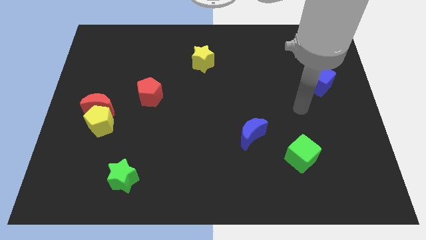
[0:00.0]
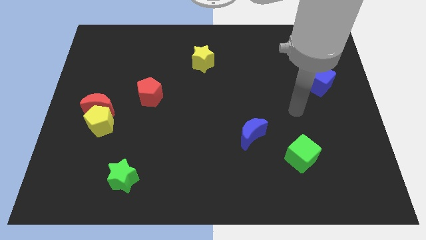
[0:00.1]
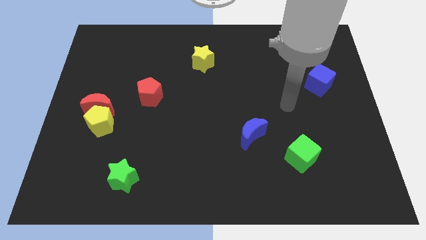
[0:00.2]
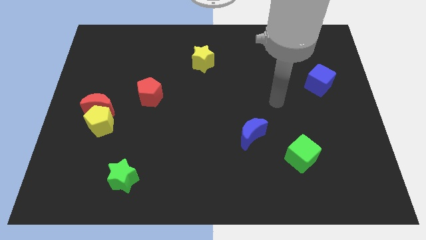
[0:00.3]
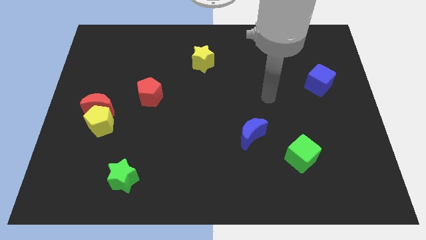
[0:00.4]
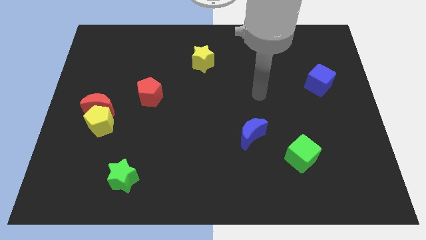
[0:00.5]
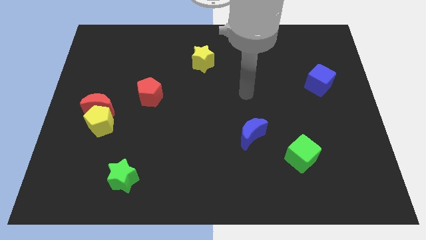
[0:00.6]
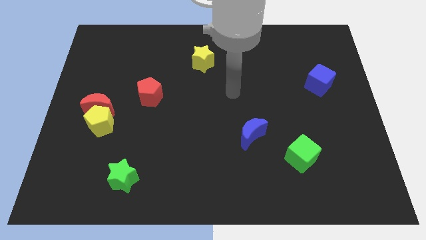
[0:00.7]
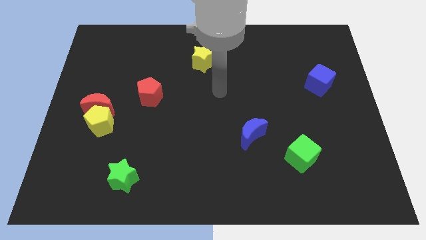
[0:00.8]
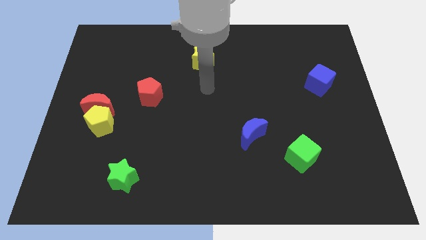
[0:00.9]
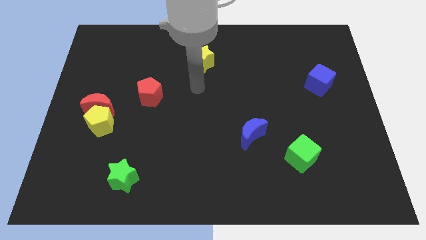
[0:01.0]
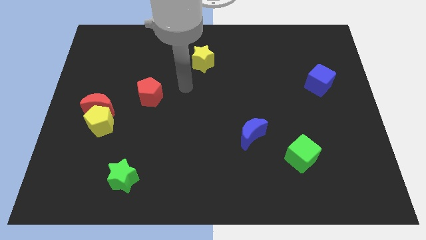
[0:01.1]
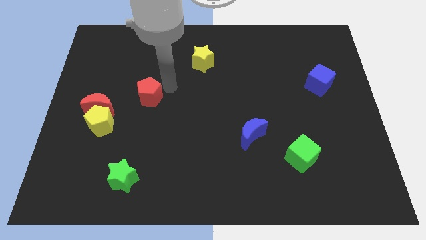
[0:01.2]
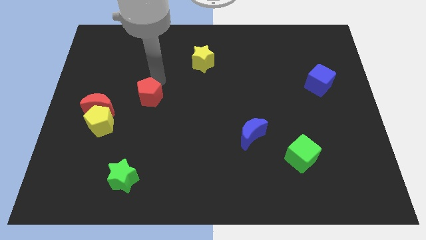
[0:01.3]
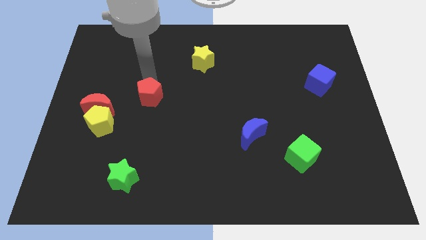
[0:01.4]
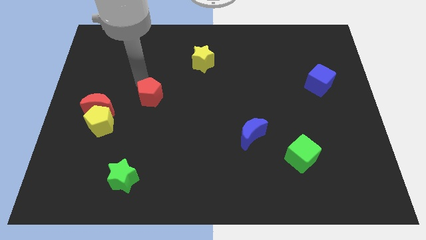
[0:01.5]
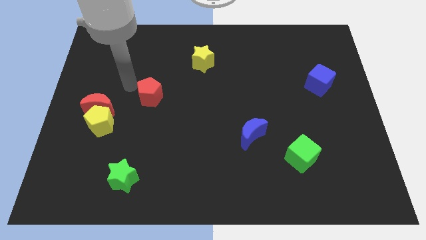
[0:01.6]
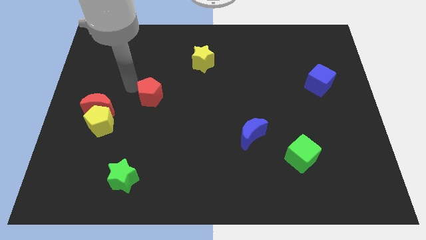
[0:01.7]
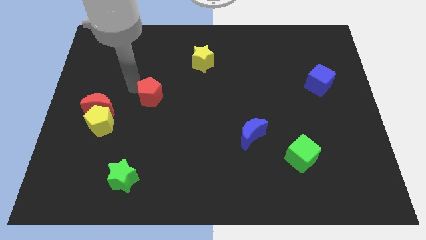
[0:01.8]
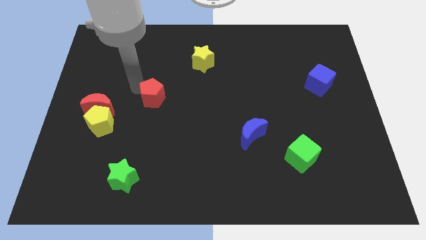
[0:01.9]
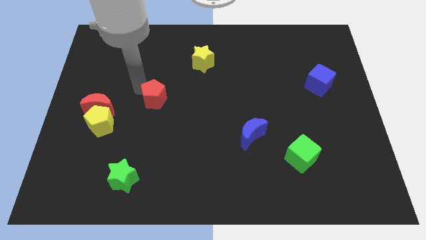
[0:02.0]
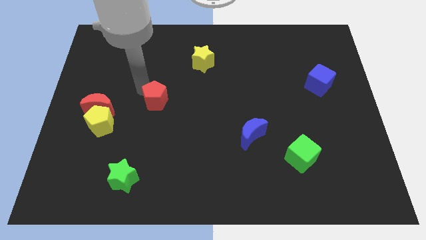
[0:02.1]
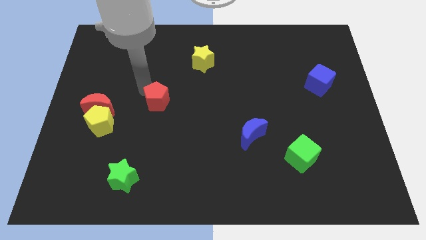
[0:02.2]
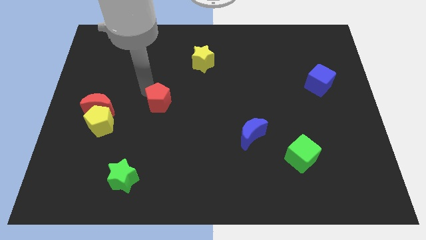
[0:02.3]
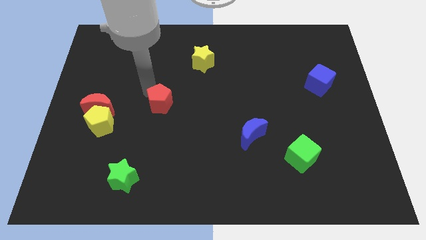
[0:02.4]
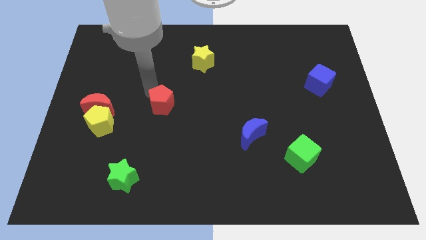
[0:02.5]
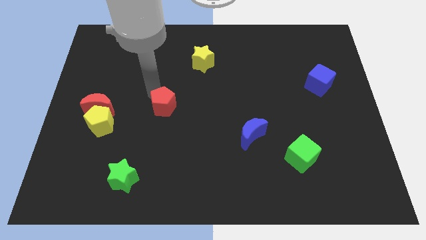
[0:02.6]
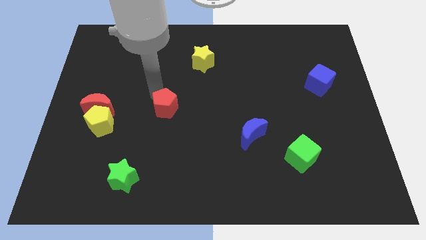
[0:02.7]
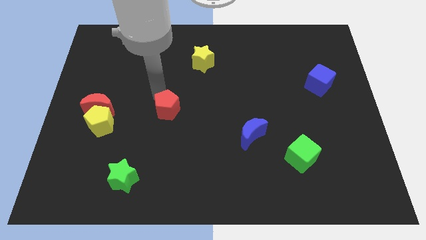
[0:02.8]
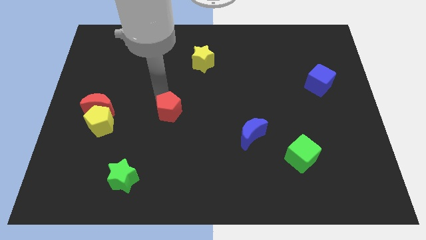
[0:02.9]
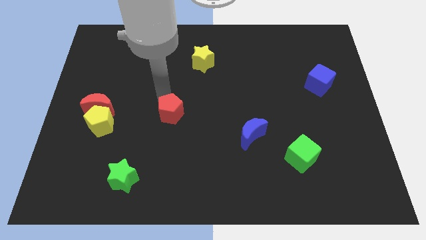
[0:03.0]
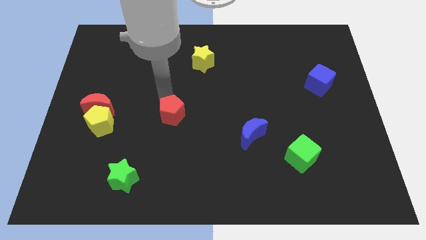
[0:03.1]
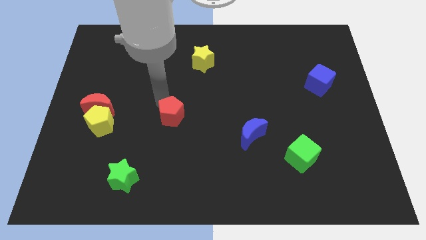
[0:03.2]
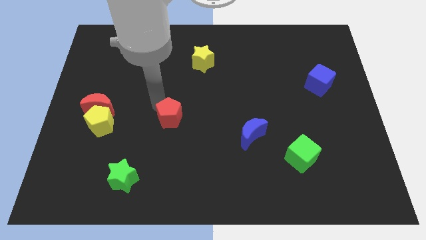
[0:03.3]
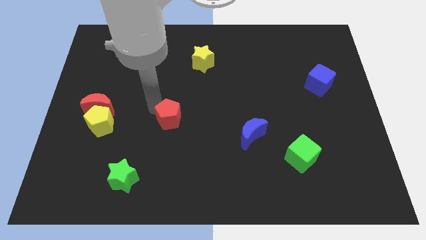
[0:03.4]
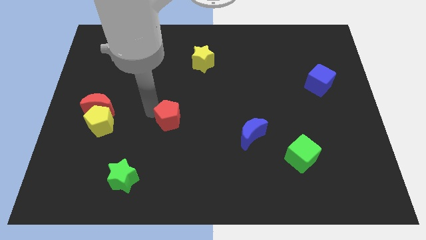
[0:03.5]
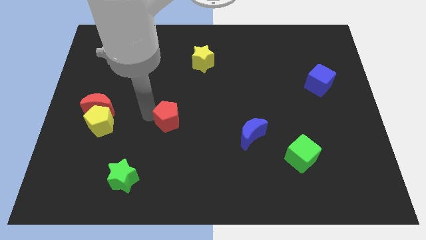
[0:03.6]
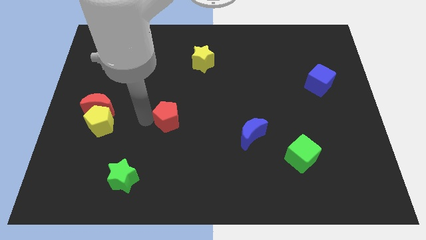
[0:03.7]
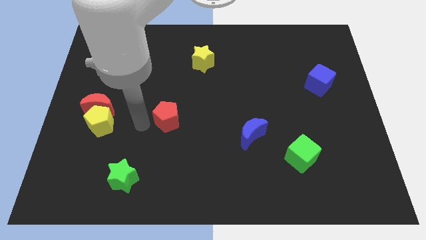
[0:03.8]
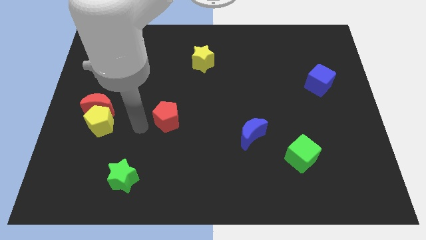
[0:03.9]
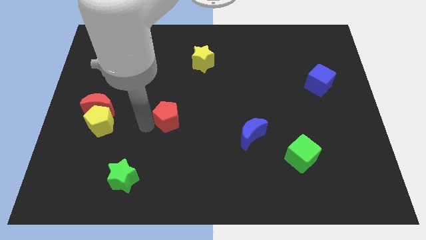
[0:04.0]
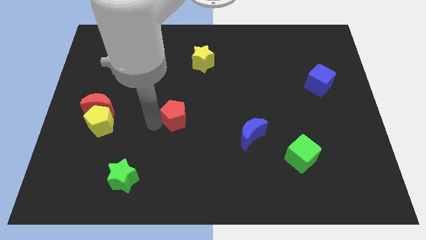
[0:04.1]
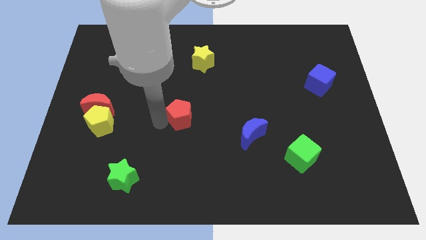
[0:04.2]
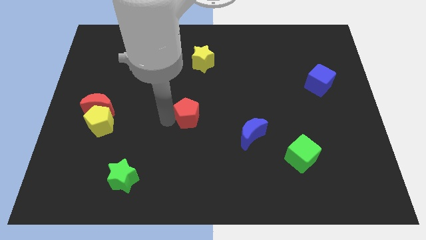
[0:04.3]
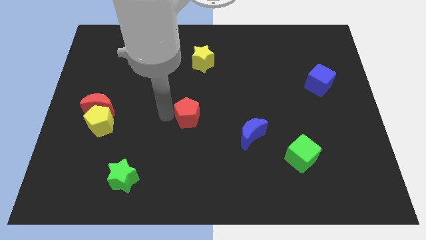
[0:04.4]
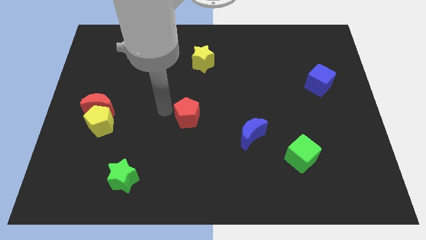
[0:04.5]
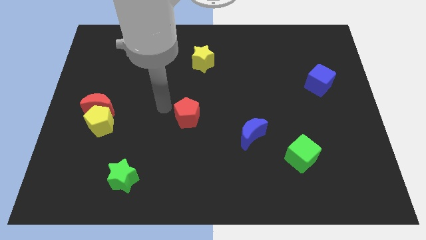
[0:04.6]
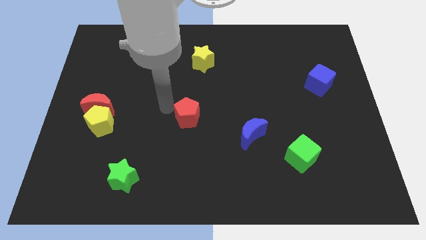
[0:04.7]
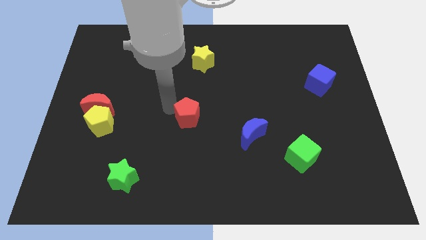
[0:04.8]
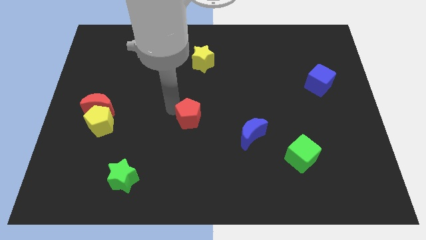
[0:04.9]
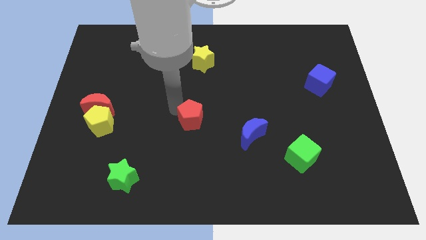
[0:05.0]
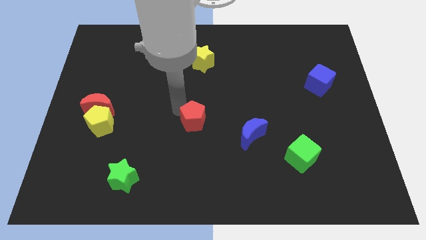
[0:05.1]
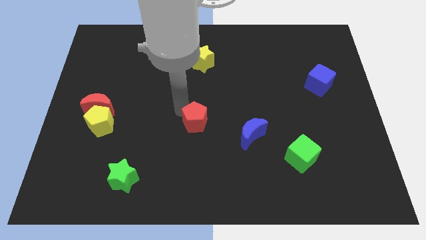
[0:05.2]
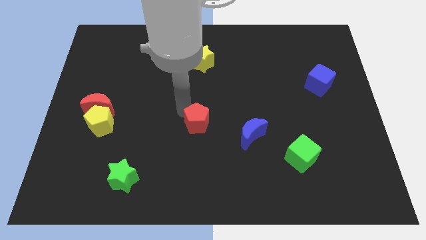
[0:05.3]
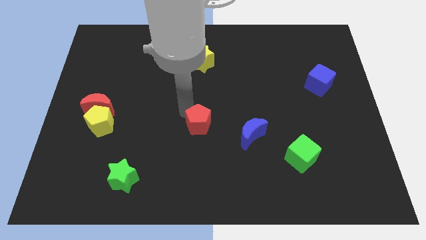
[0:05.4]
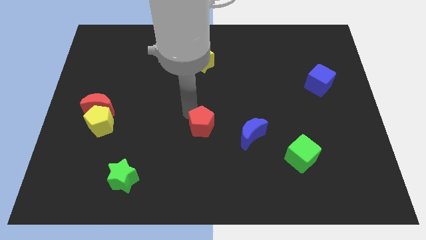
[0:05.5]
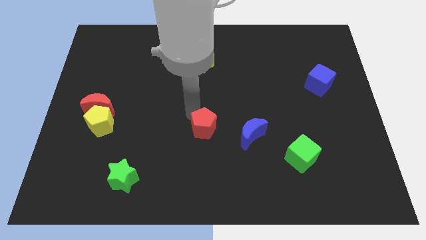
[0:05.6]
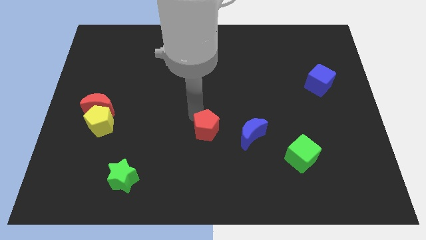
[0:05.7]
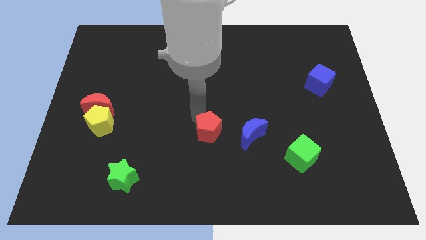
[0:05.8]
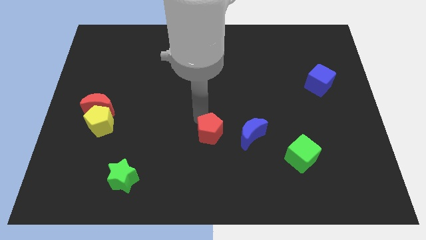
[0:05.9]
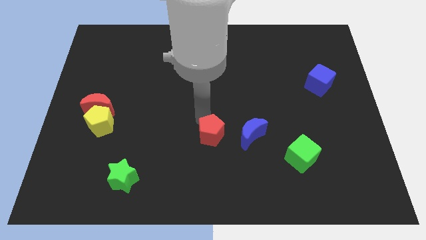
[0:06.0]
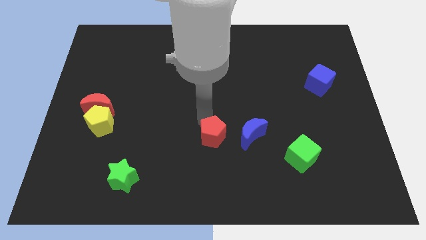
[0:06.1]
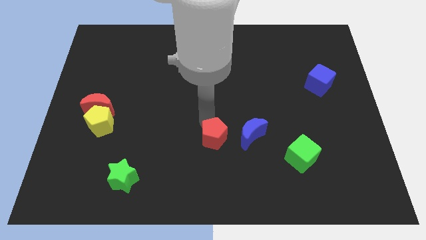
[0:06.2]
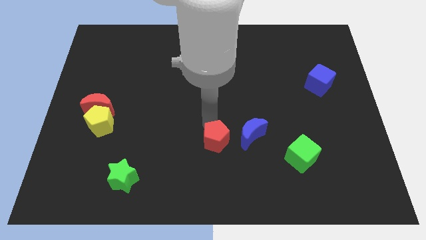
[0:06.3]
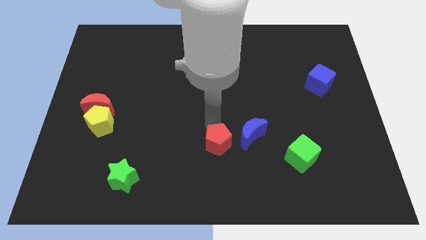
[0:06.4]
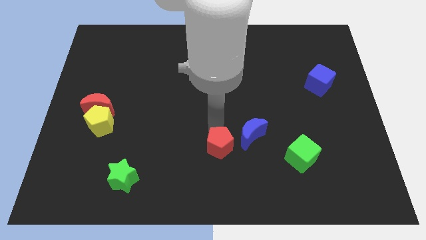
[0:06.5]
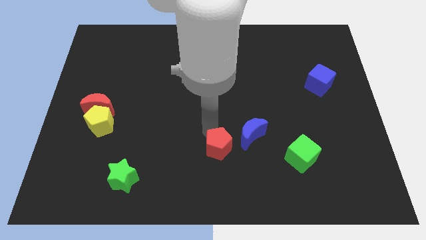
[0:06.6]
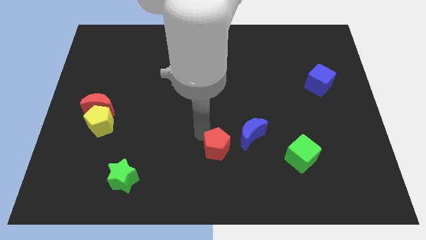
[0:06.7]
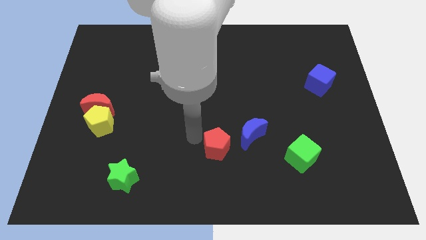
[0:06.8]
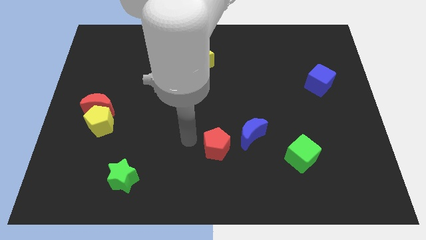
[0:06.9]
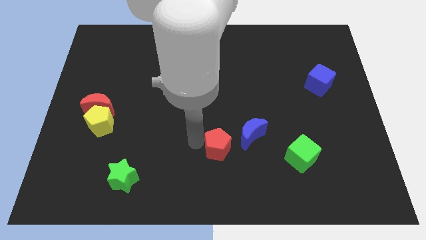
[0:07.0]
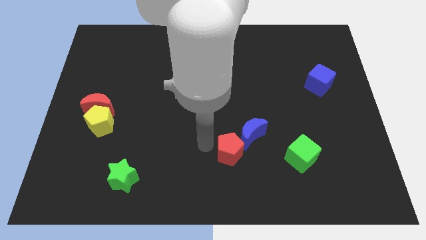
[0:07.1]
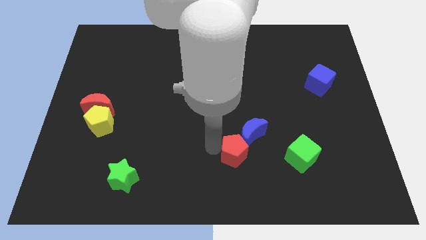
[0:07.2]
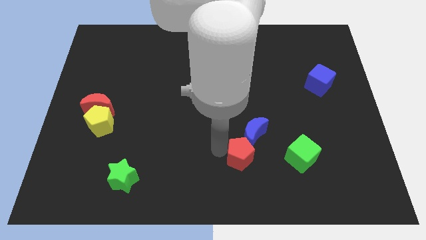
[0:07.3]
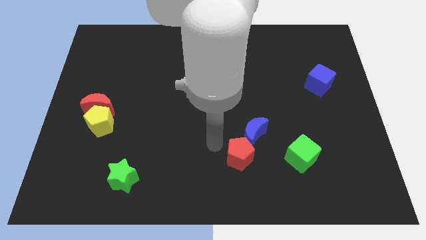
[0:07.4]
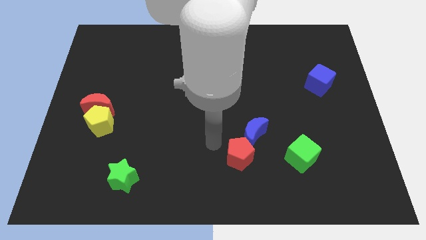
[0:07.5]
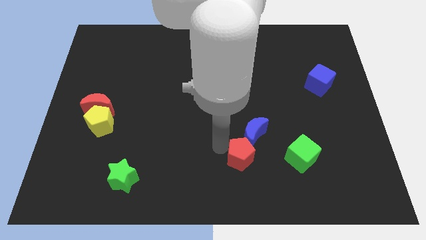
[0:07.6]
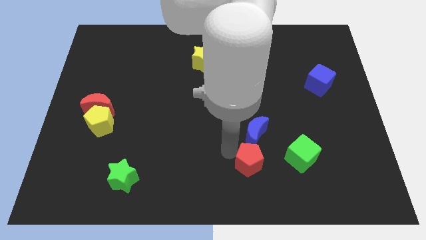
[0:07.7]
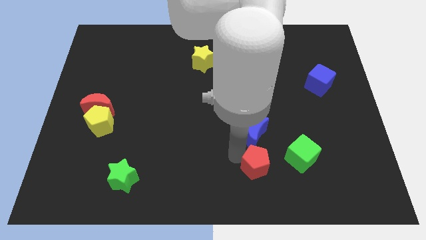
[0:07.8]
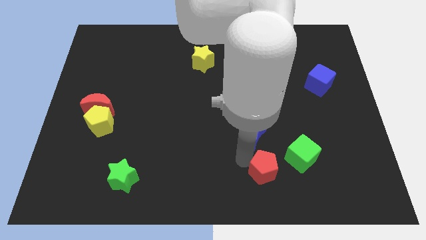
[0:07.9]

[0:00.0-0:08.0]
slide the red pentagon diagonally down and to the left of the green cube
